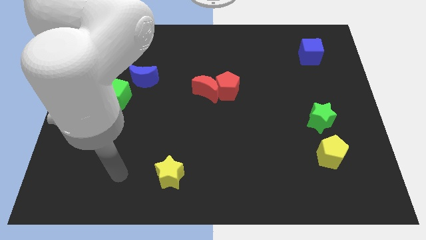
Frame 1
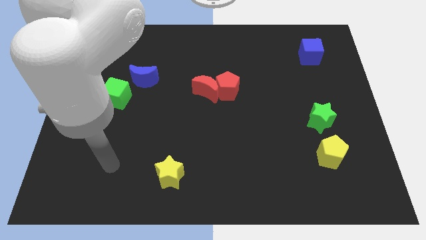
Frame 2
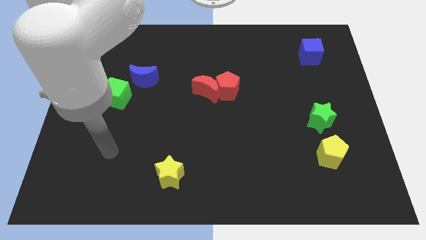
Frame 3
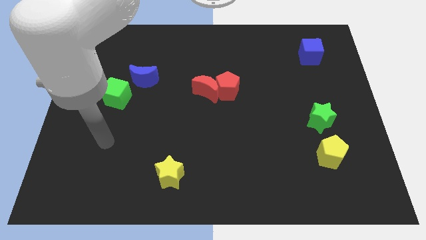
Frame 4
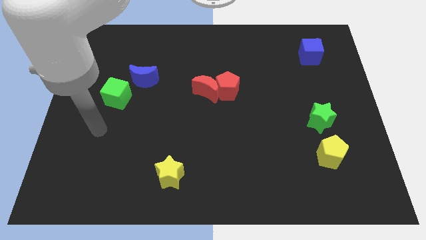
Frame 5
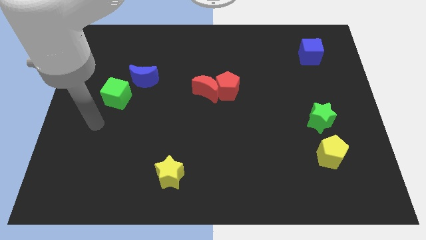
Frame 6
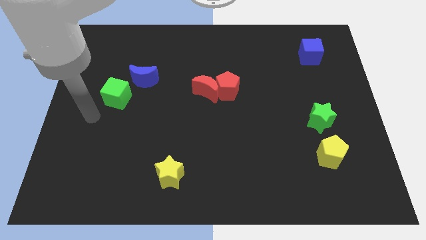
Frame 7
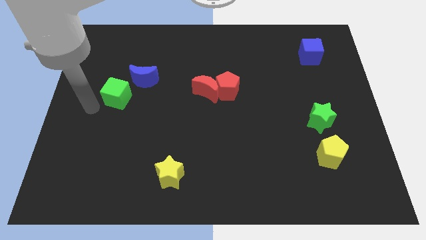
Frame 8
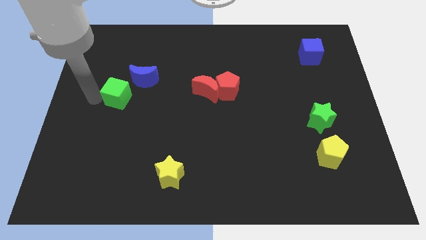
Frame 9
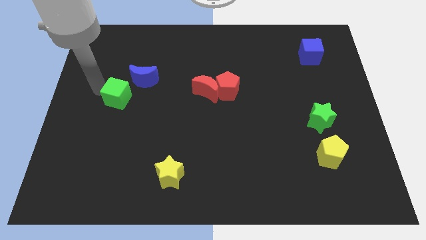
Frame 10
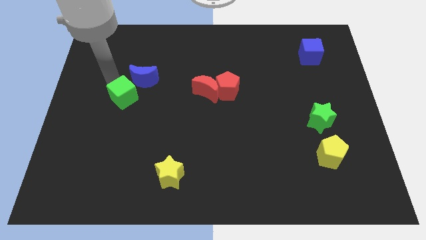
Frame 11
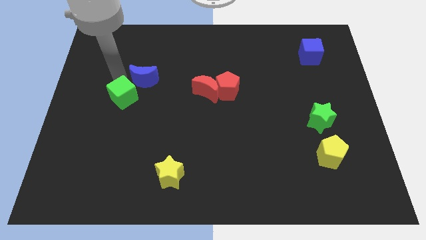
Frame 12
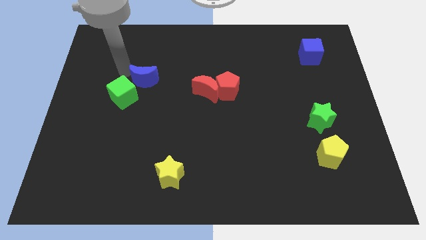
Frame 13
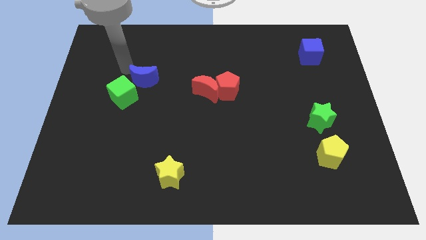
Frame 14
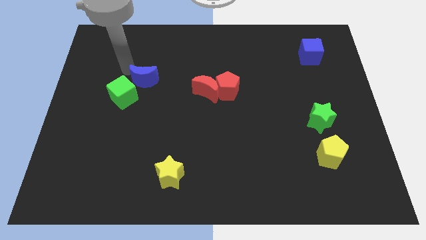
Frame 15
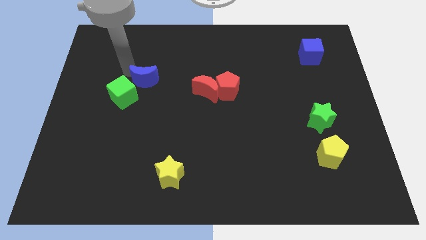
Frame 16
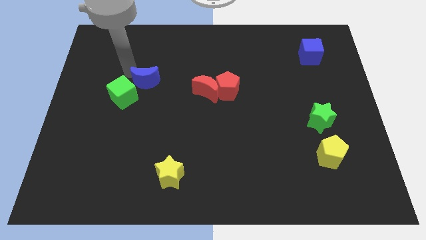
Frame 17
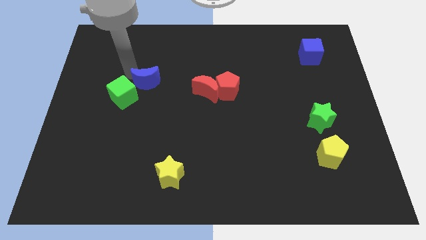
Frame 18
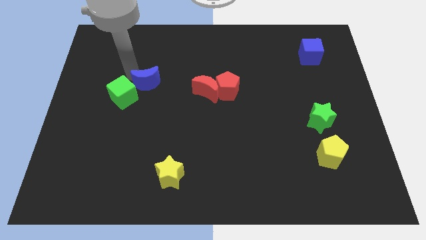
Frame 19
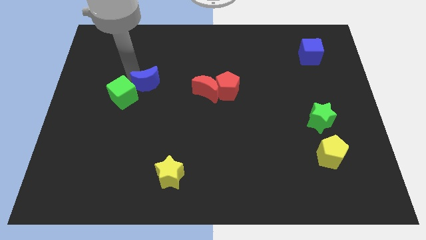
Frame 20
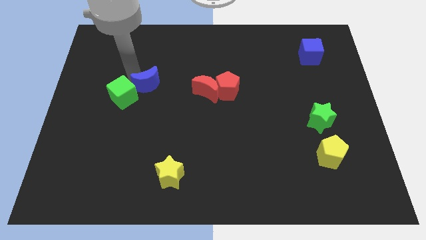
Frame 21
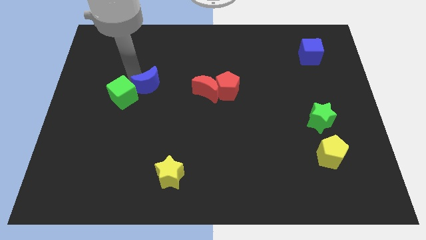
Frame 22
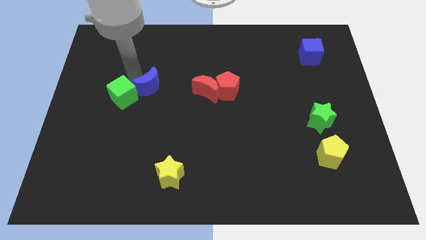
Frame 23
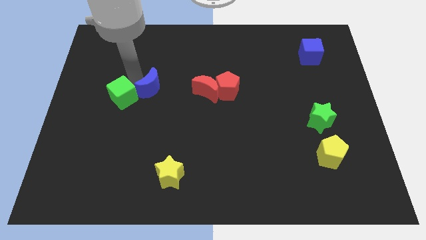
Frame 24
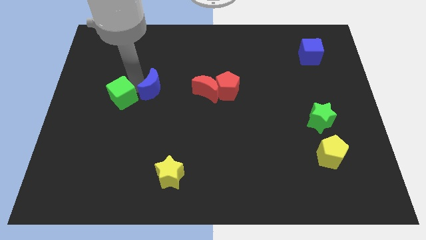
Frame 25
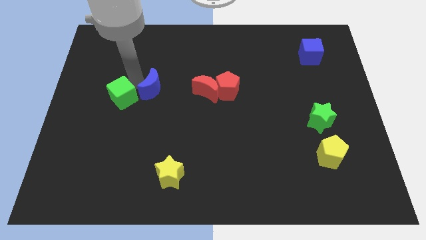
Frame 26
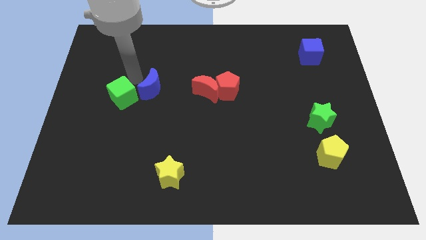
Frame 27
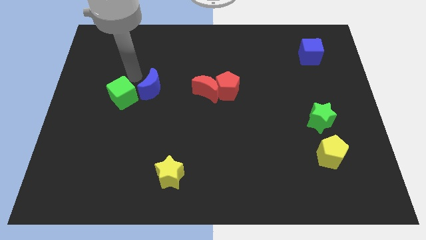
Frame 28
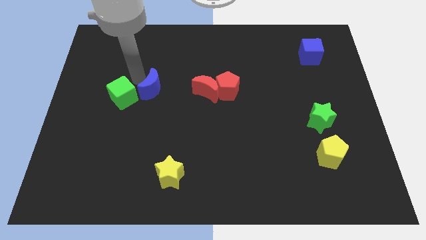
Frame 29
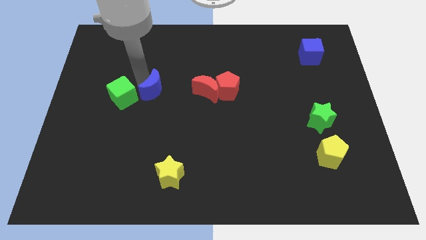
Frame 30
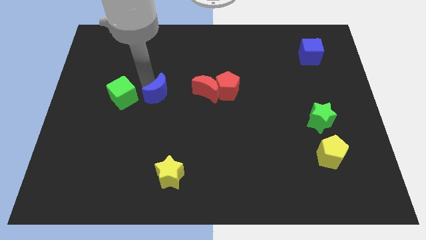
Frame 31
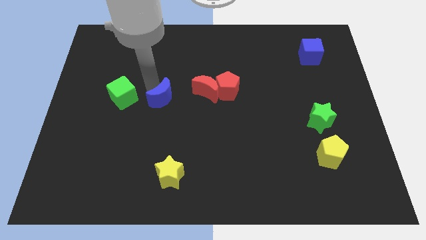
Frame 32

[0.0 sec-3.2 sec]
push the blue moon a little bit down and to the right

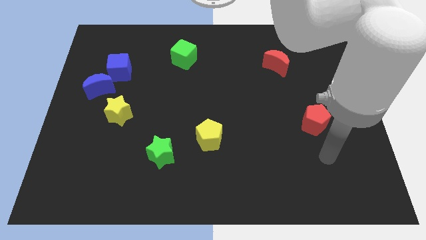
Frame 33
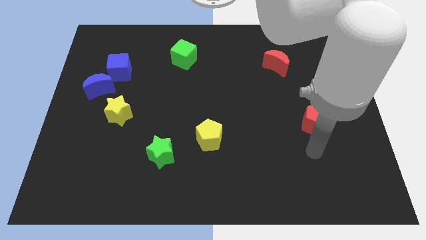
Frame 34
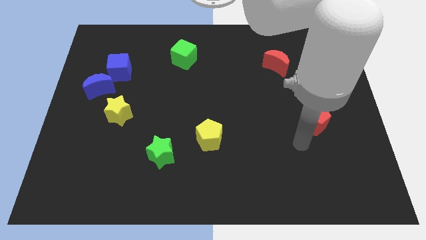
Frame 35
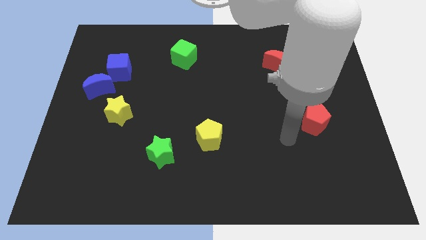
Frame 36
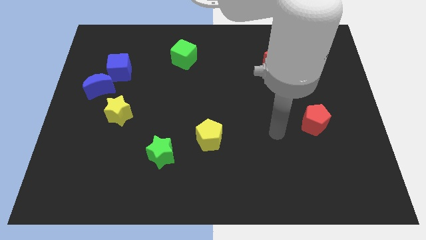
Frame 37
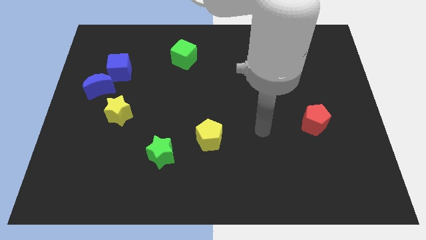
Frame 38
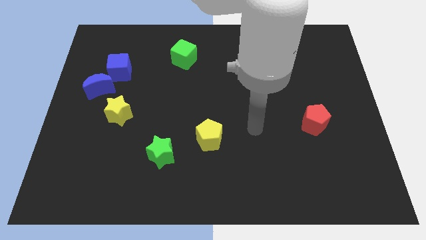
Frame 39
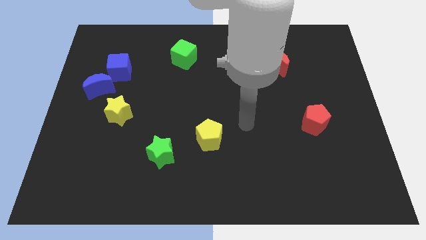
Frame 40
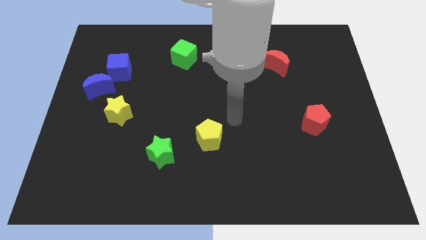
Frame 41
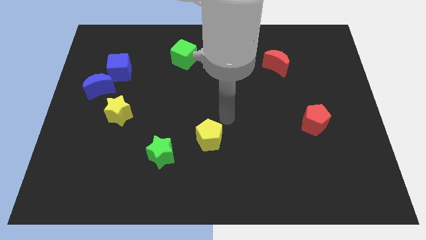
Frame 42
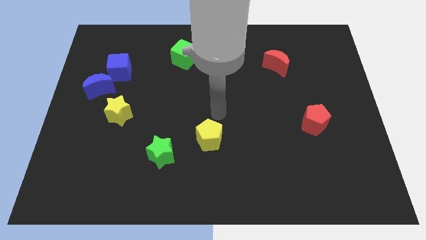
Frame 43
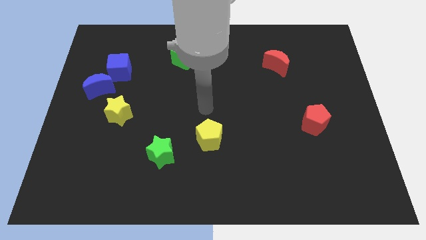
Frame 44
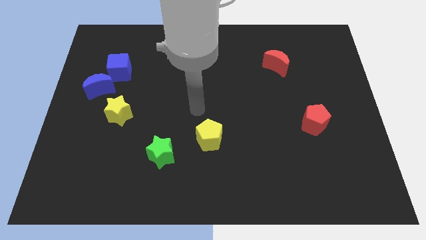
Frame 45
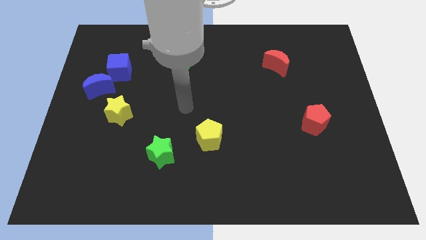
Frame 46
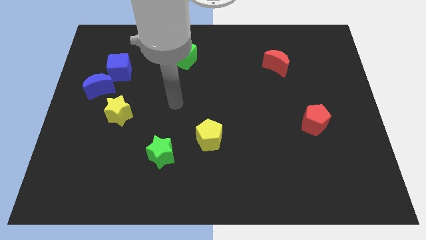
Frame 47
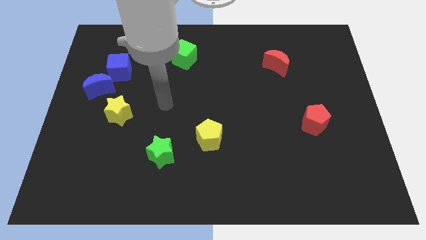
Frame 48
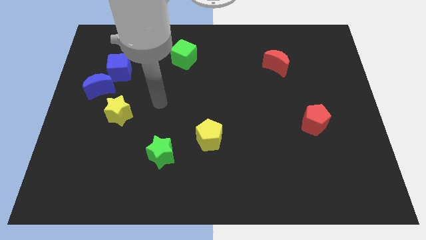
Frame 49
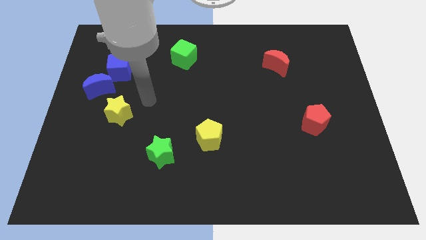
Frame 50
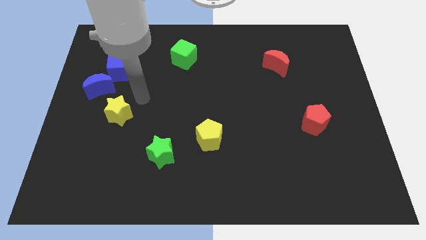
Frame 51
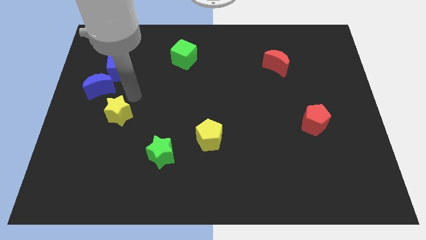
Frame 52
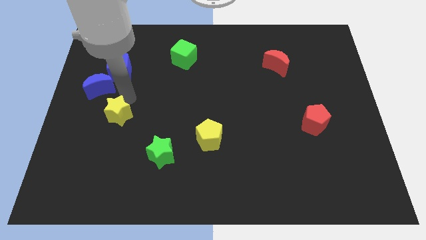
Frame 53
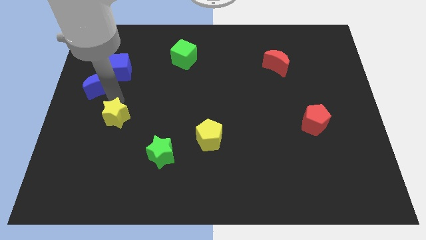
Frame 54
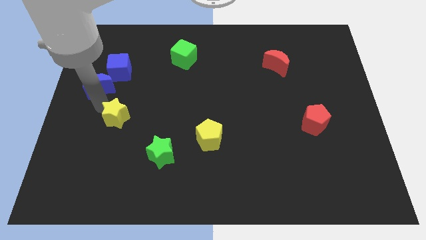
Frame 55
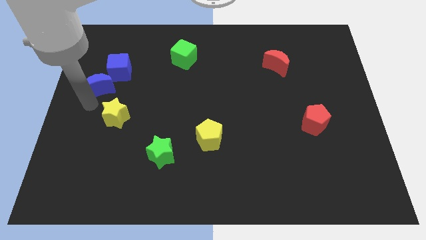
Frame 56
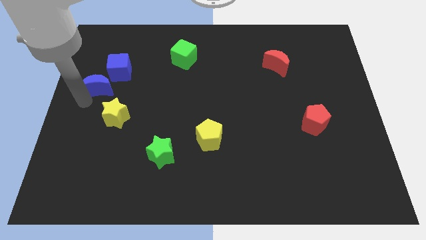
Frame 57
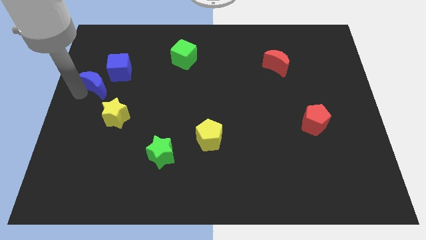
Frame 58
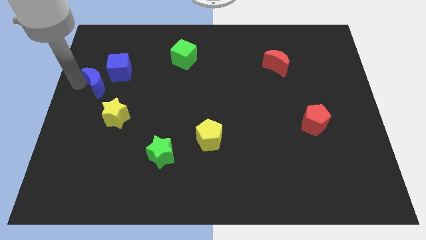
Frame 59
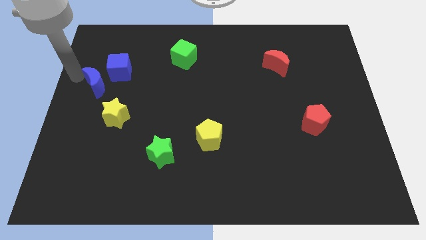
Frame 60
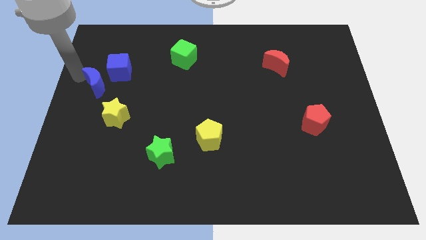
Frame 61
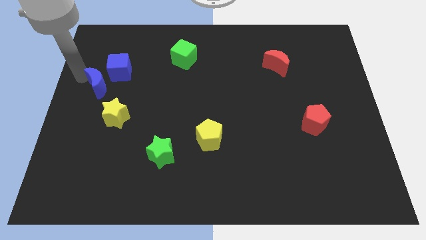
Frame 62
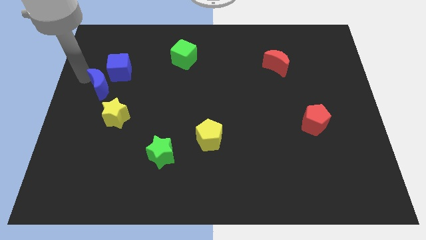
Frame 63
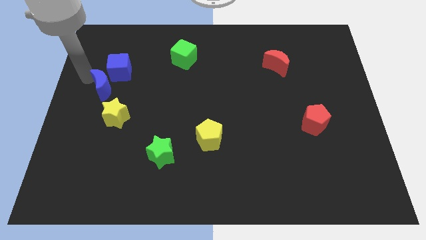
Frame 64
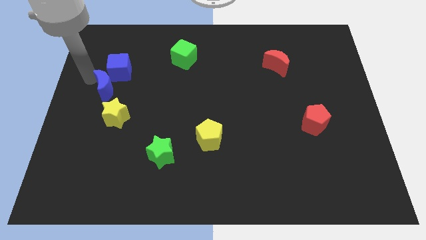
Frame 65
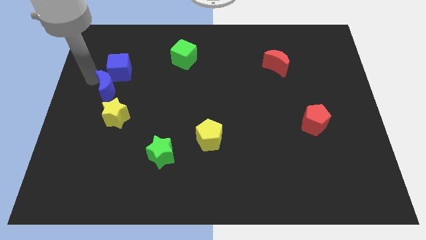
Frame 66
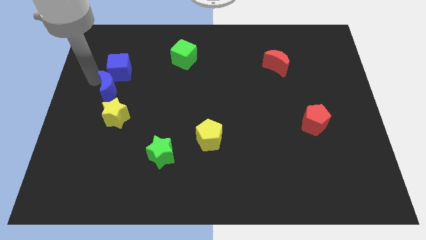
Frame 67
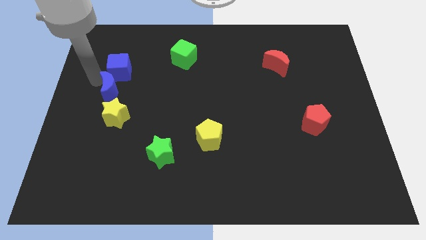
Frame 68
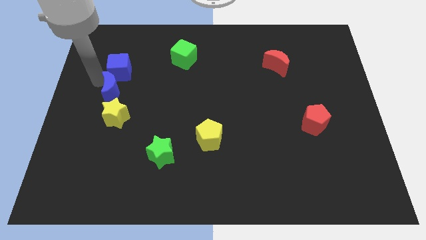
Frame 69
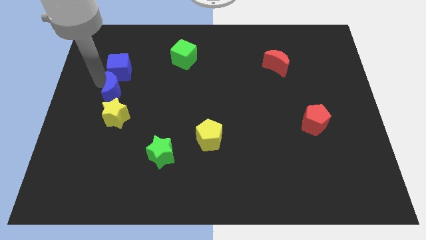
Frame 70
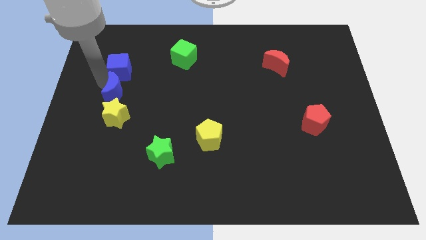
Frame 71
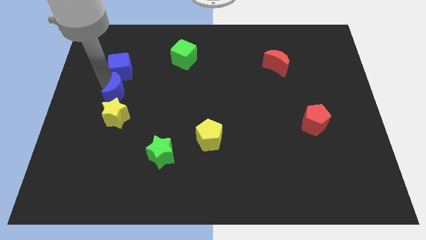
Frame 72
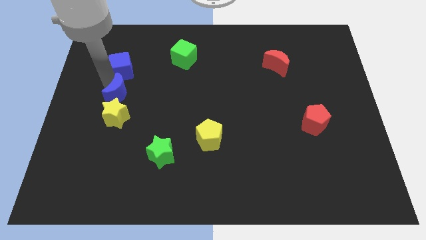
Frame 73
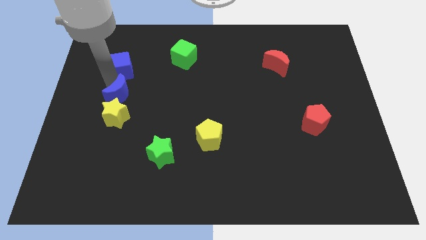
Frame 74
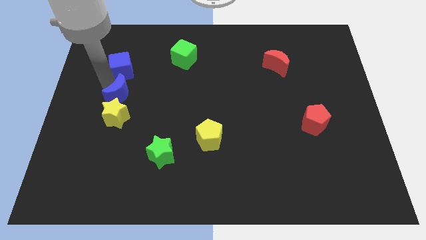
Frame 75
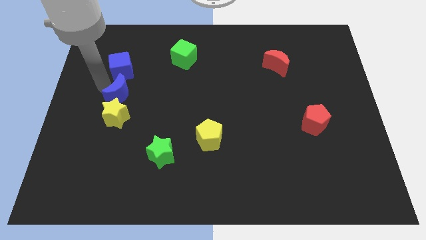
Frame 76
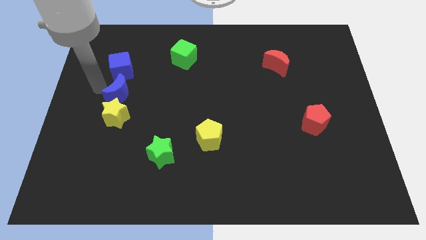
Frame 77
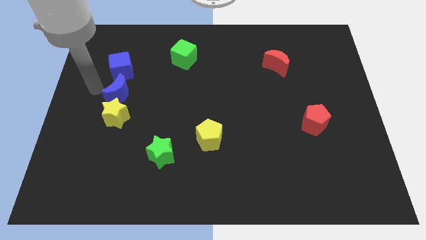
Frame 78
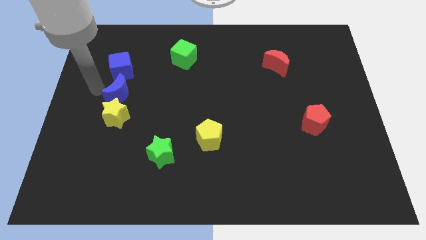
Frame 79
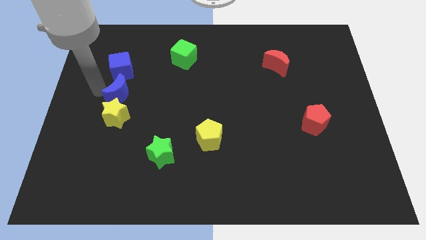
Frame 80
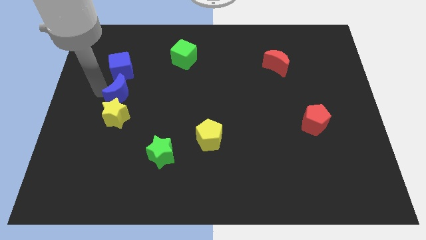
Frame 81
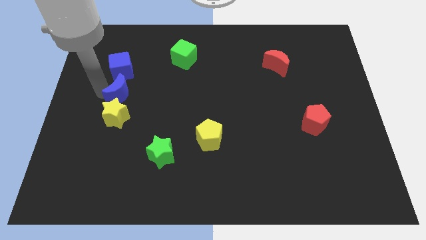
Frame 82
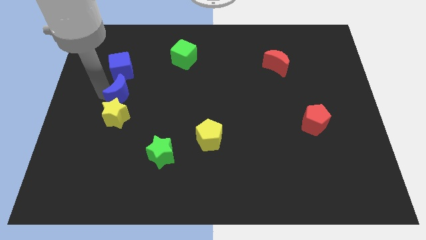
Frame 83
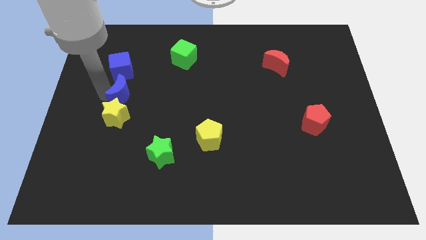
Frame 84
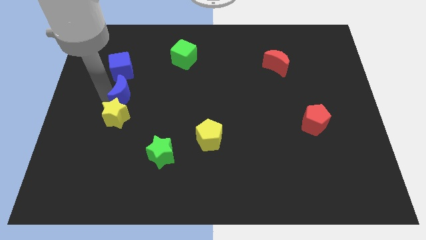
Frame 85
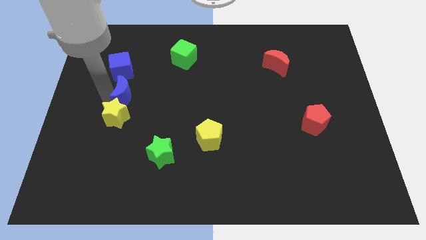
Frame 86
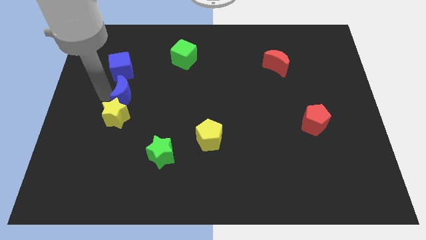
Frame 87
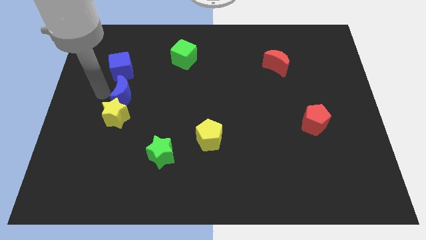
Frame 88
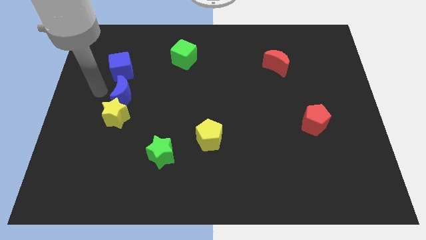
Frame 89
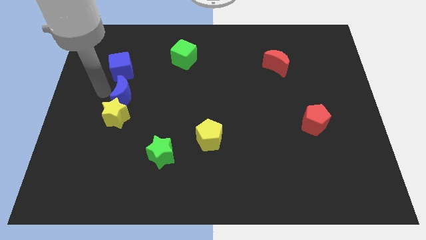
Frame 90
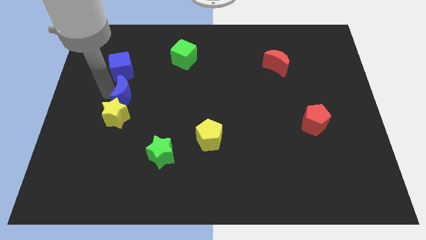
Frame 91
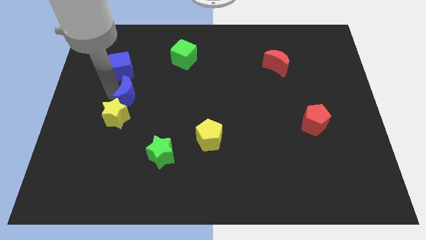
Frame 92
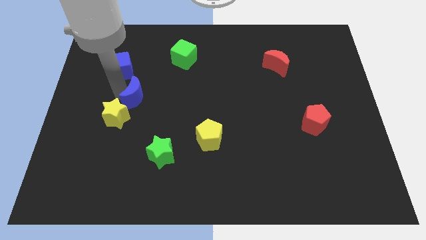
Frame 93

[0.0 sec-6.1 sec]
slightly slide the blue moon down and then right
